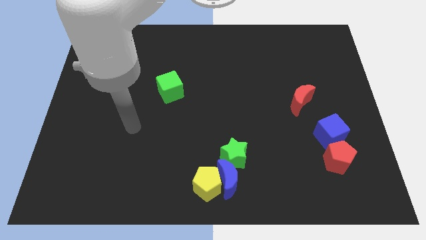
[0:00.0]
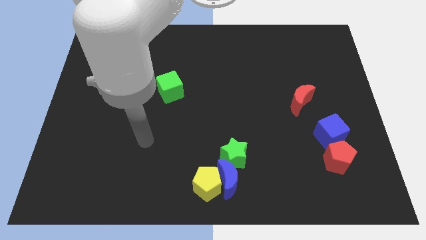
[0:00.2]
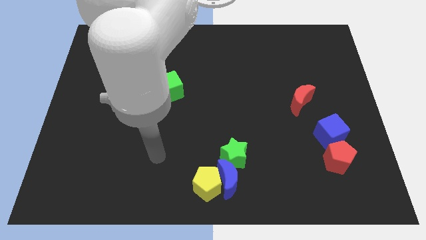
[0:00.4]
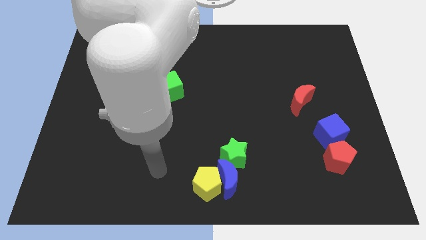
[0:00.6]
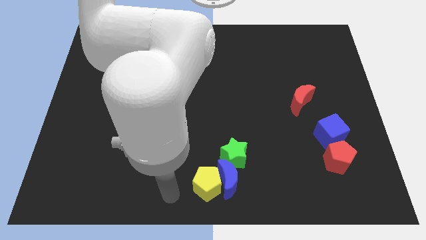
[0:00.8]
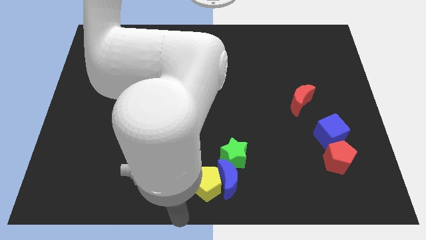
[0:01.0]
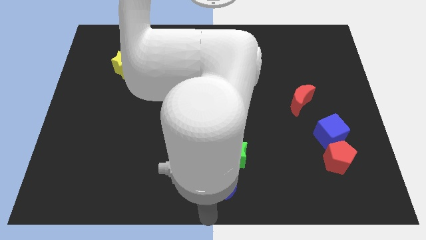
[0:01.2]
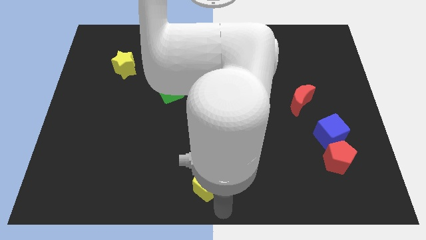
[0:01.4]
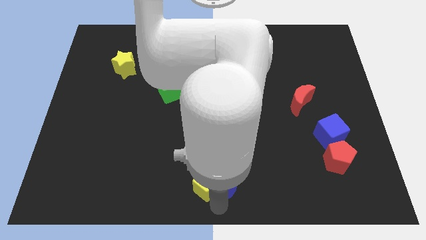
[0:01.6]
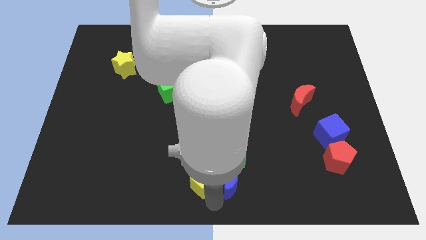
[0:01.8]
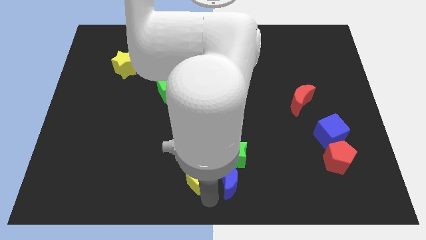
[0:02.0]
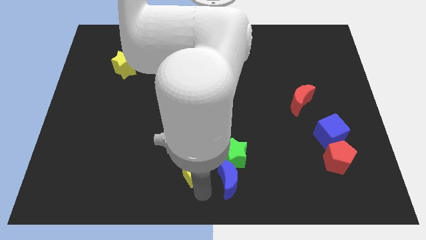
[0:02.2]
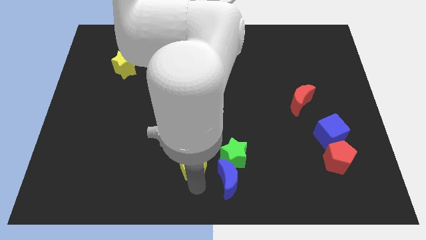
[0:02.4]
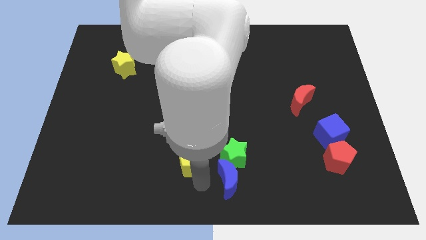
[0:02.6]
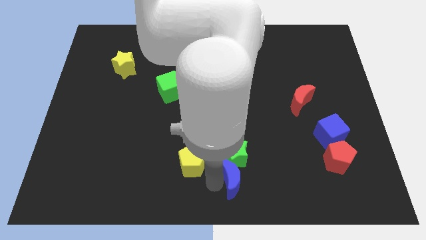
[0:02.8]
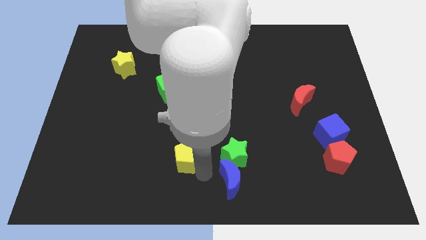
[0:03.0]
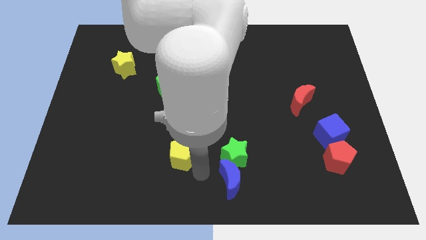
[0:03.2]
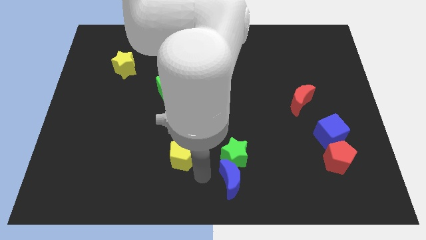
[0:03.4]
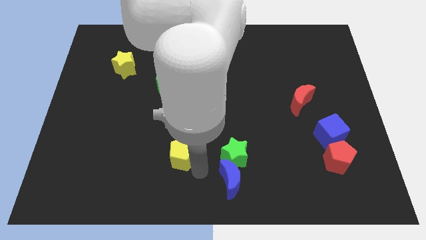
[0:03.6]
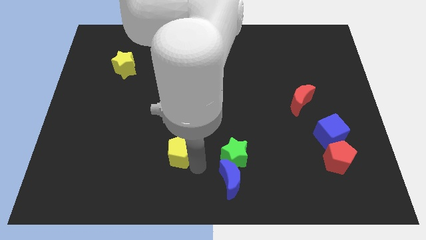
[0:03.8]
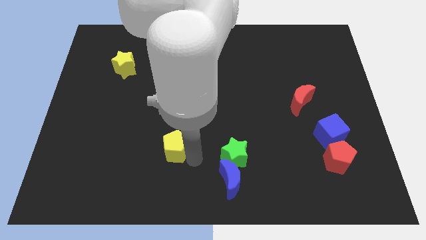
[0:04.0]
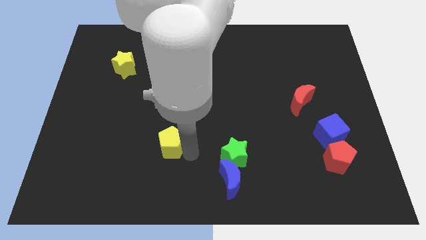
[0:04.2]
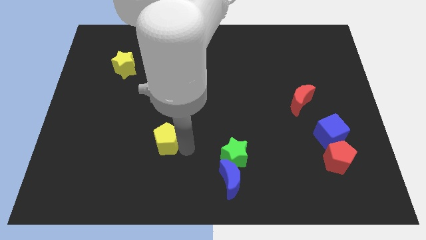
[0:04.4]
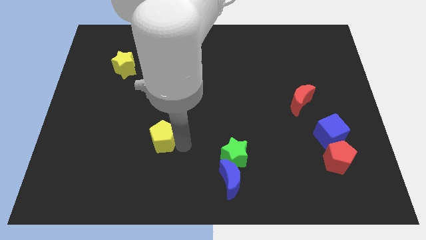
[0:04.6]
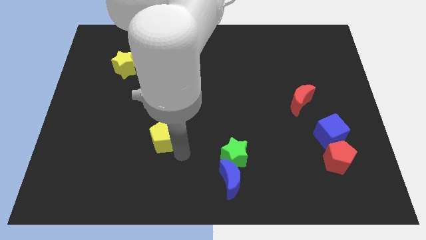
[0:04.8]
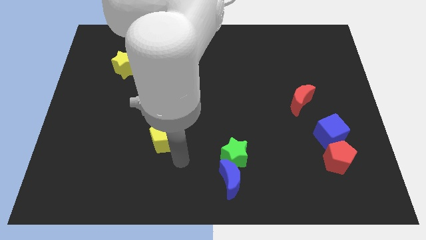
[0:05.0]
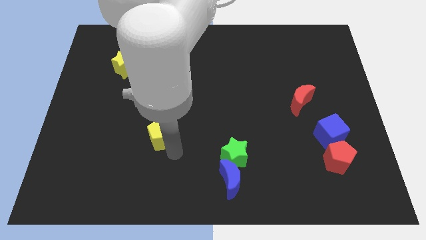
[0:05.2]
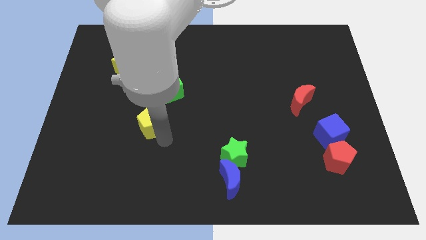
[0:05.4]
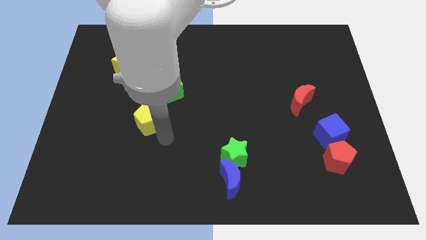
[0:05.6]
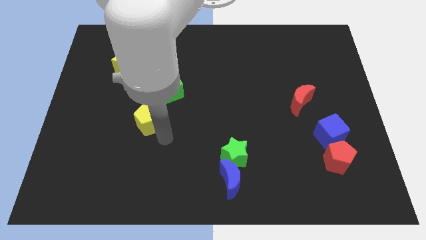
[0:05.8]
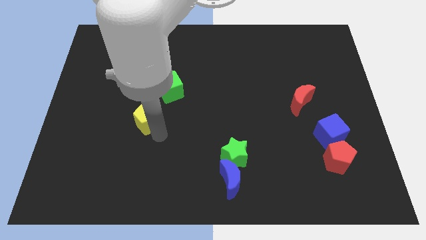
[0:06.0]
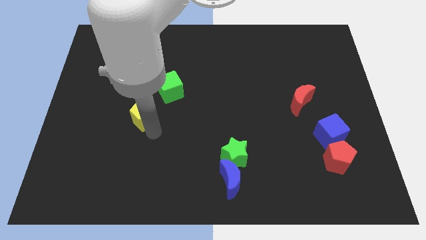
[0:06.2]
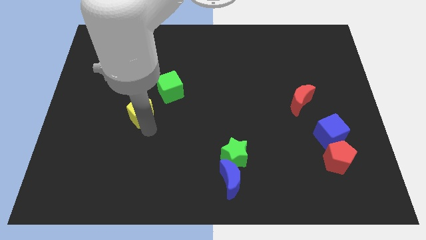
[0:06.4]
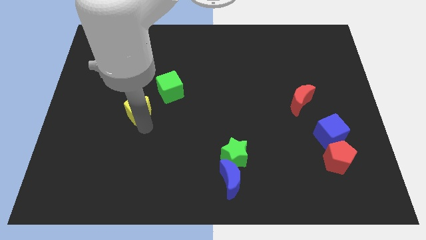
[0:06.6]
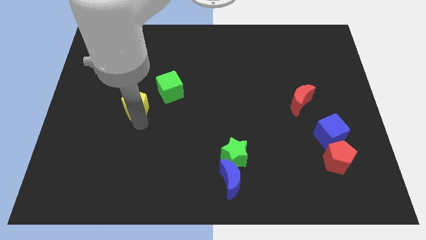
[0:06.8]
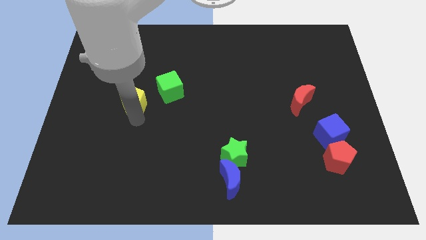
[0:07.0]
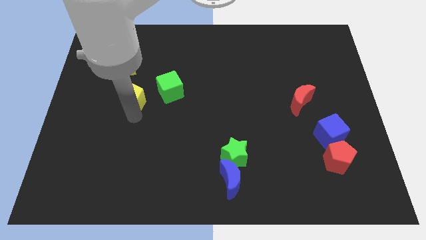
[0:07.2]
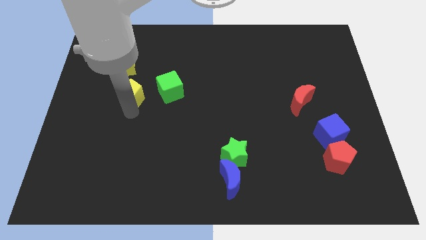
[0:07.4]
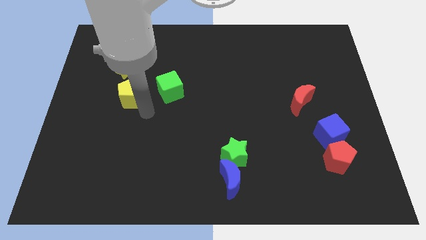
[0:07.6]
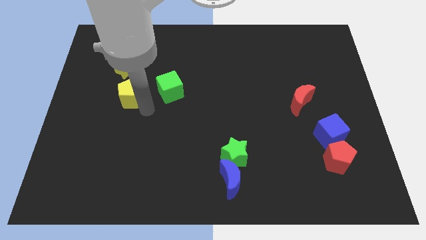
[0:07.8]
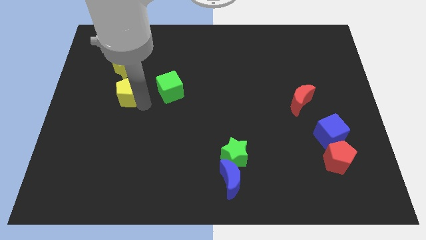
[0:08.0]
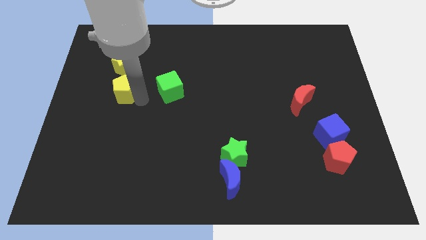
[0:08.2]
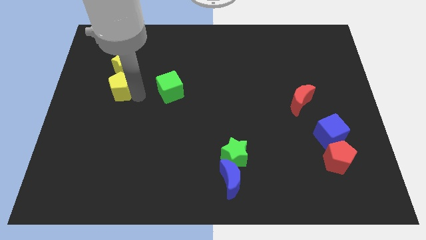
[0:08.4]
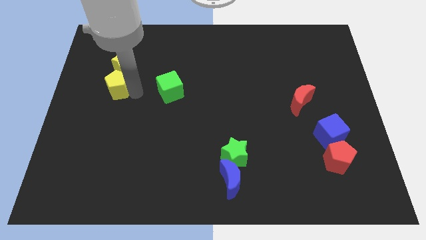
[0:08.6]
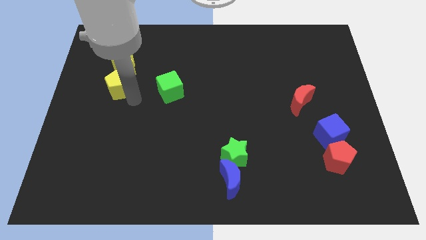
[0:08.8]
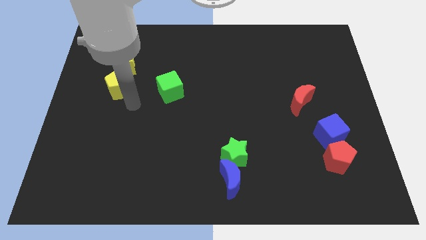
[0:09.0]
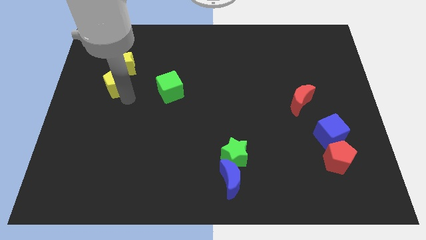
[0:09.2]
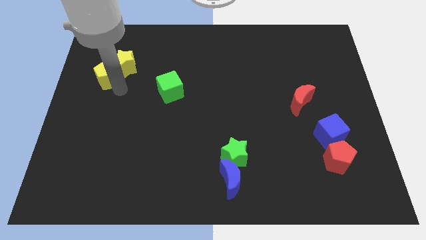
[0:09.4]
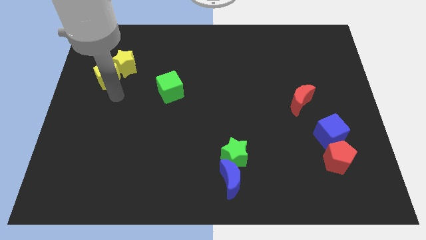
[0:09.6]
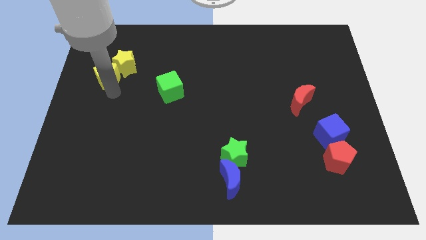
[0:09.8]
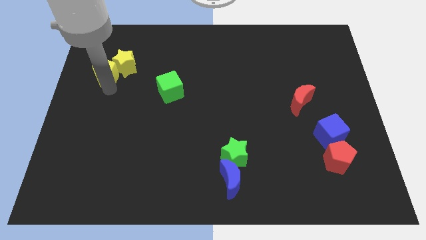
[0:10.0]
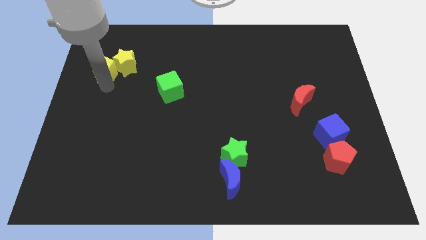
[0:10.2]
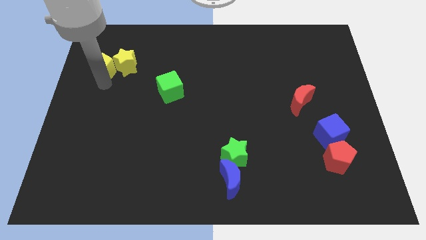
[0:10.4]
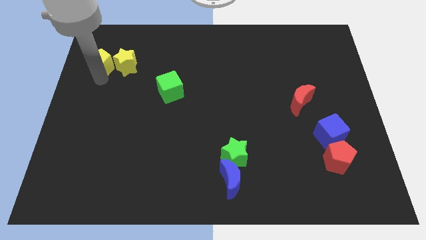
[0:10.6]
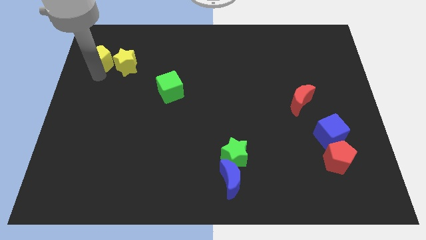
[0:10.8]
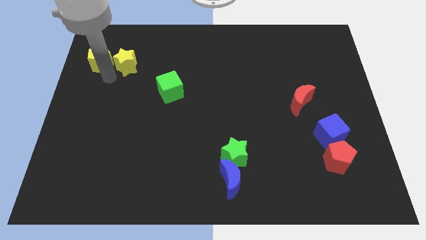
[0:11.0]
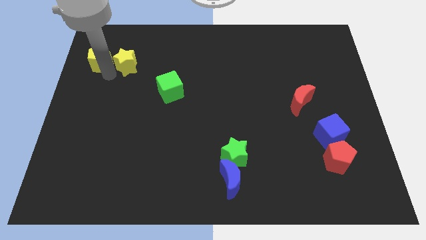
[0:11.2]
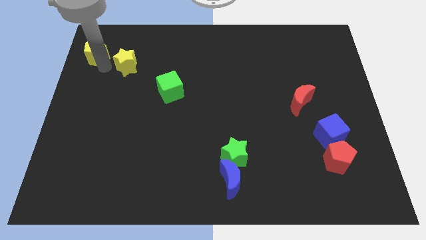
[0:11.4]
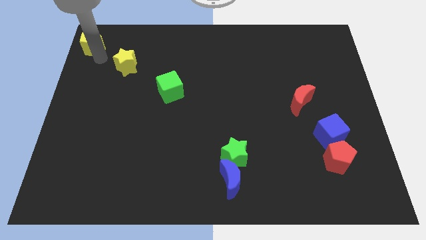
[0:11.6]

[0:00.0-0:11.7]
move the yellow pentagon to the top left of the board

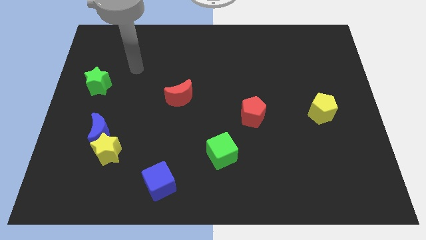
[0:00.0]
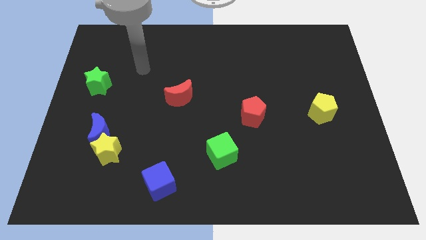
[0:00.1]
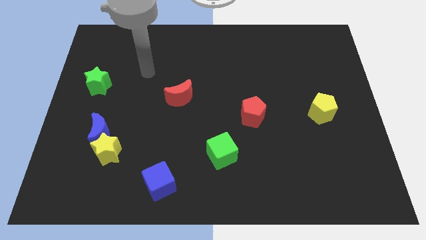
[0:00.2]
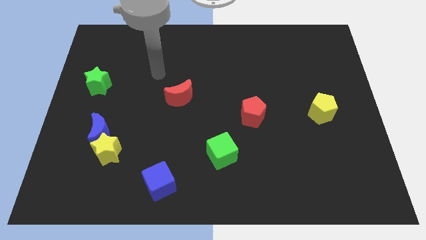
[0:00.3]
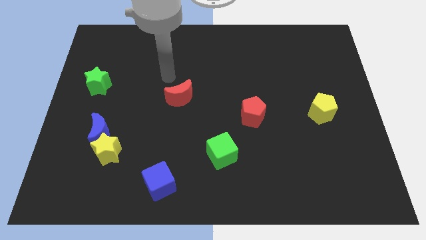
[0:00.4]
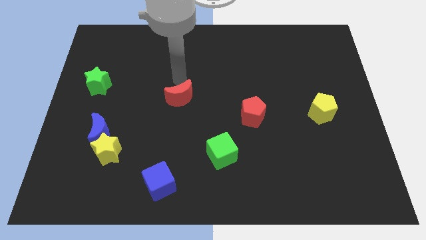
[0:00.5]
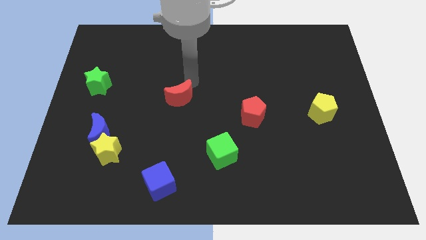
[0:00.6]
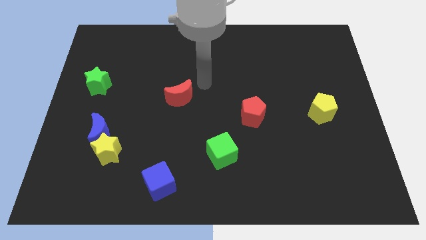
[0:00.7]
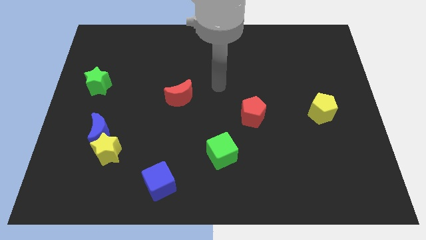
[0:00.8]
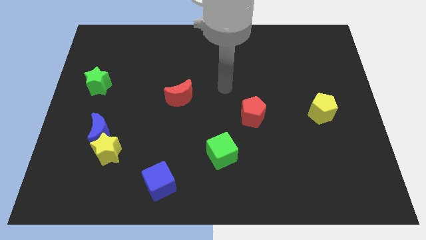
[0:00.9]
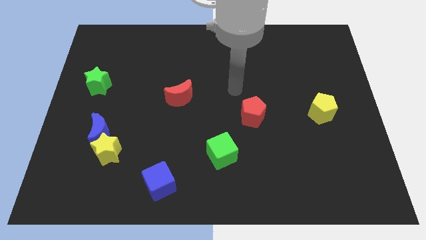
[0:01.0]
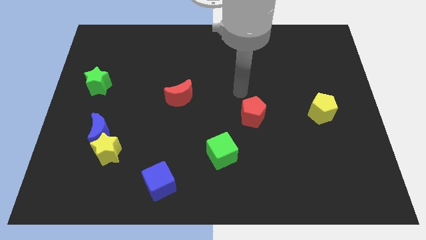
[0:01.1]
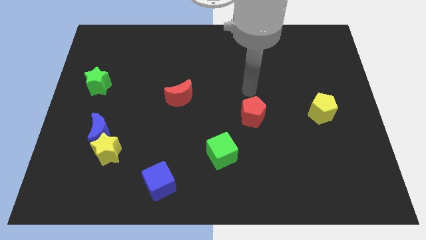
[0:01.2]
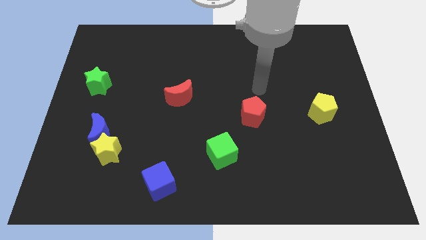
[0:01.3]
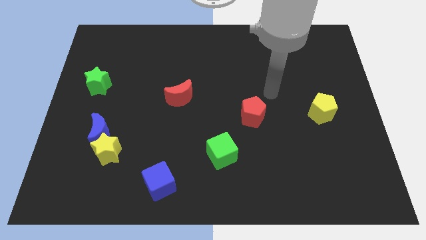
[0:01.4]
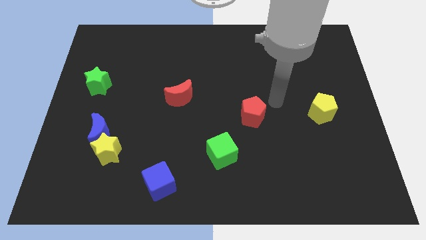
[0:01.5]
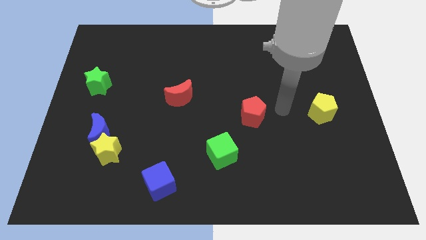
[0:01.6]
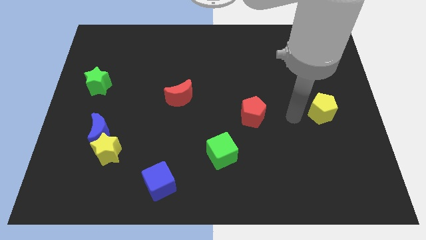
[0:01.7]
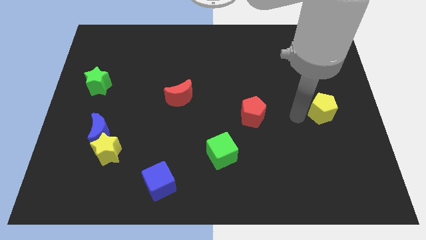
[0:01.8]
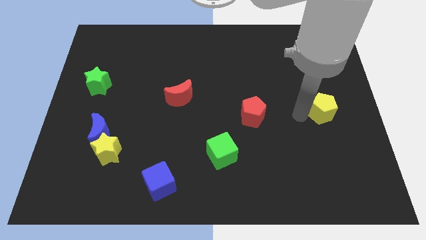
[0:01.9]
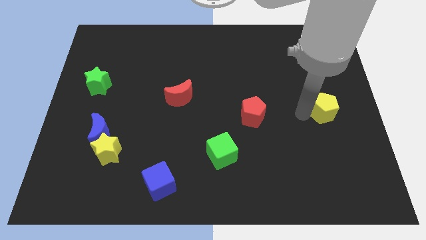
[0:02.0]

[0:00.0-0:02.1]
push the yellow pentagon to the center right
